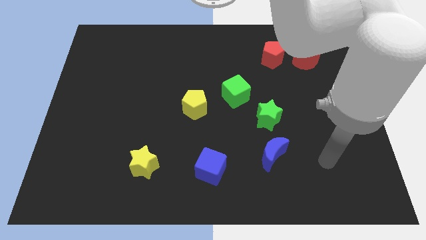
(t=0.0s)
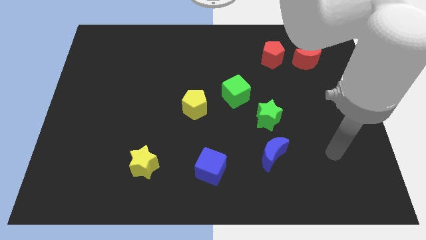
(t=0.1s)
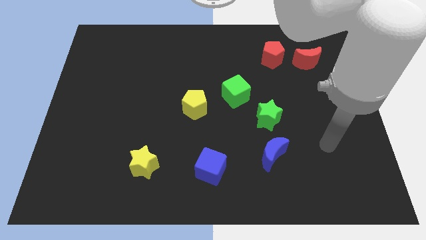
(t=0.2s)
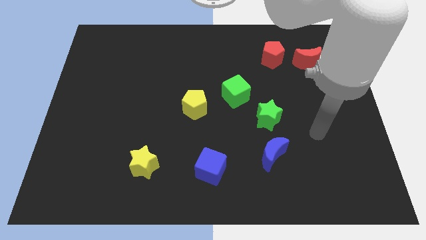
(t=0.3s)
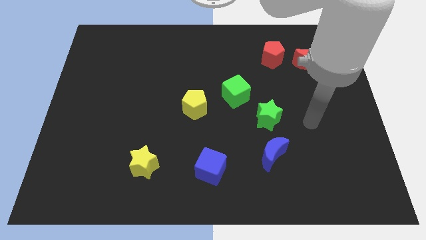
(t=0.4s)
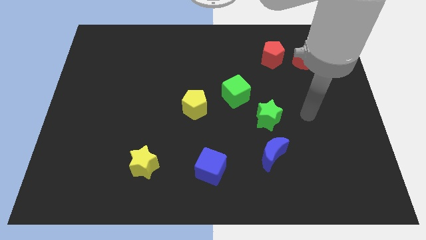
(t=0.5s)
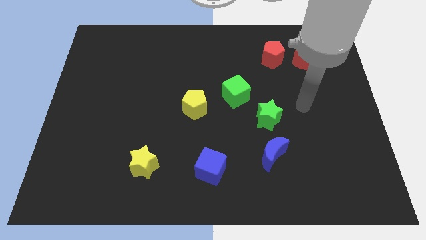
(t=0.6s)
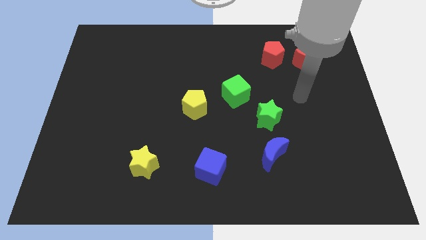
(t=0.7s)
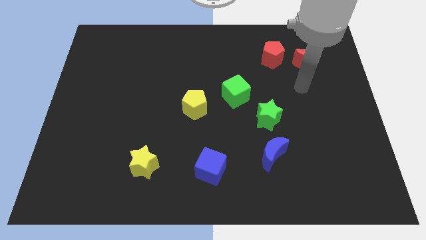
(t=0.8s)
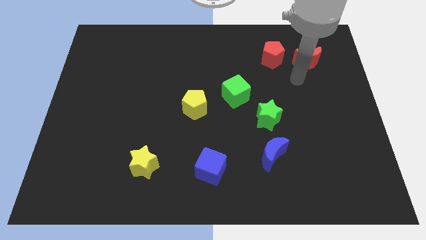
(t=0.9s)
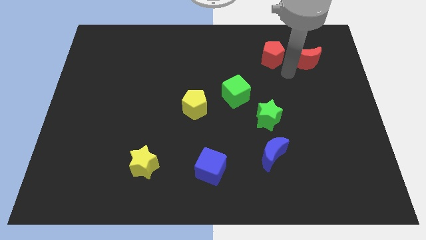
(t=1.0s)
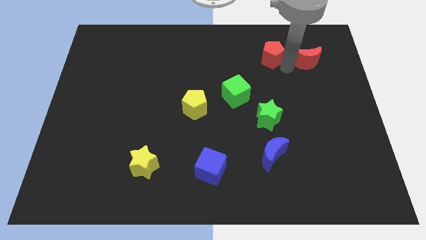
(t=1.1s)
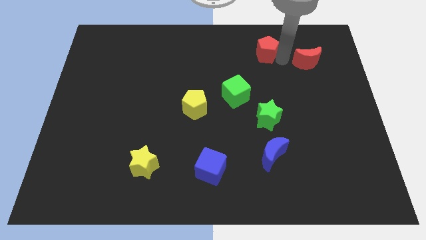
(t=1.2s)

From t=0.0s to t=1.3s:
move the red moon away from the red pentagon

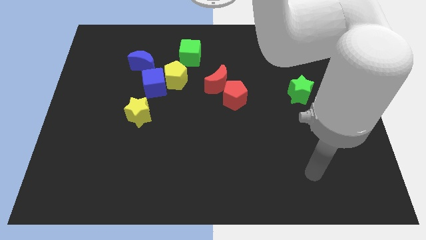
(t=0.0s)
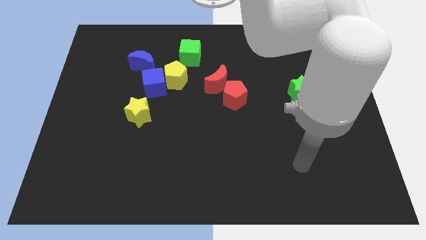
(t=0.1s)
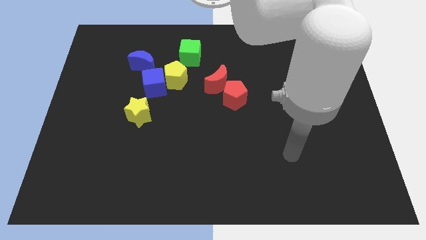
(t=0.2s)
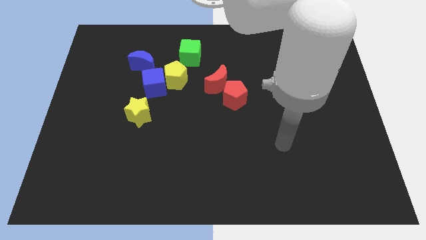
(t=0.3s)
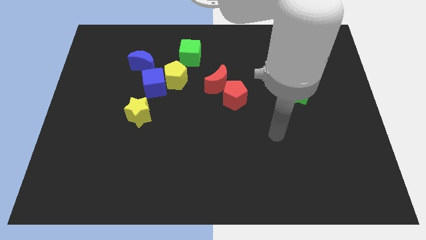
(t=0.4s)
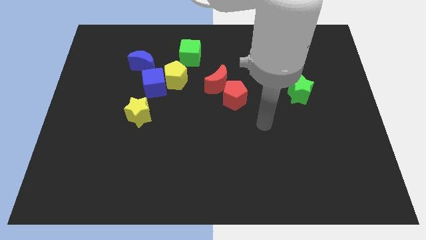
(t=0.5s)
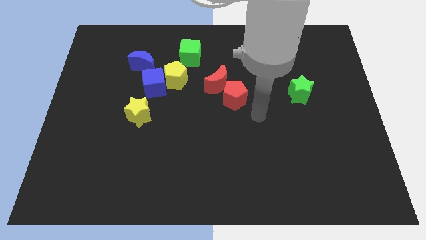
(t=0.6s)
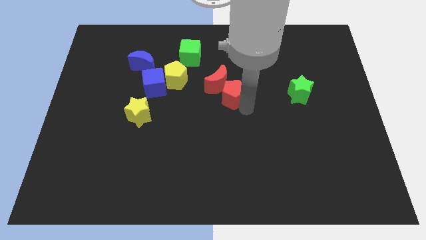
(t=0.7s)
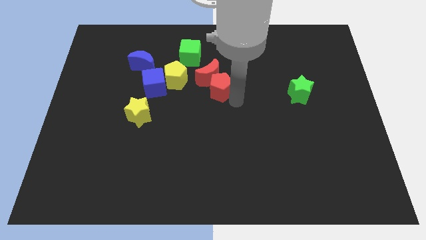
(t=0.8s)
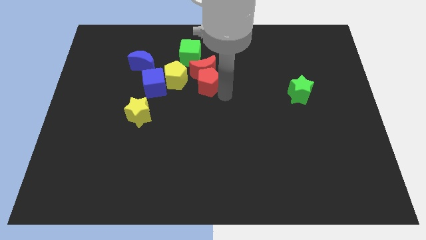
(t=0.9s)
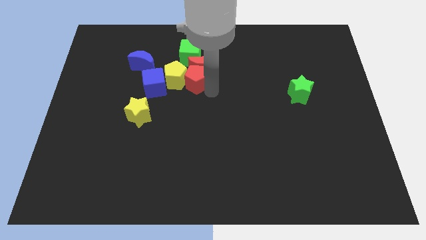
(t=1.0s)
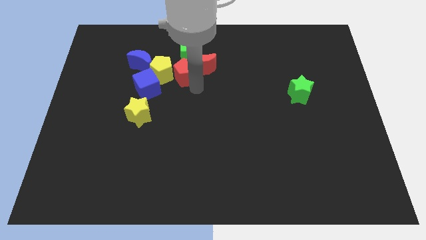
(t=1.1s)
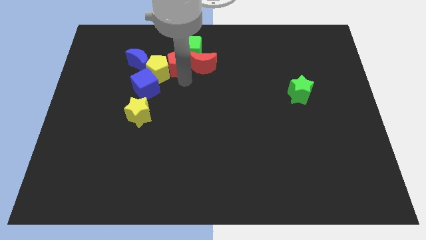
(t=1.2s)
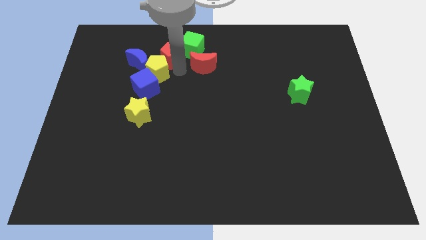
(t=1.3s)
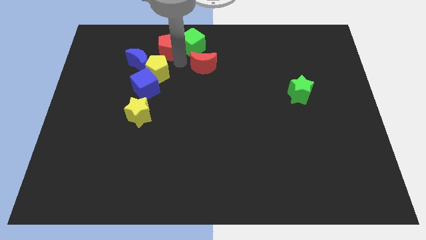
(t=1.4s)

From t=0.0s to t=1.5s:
pull the red moon apart from the red pentagon

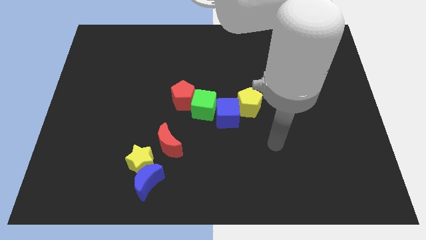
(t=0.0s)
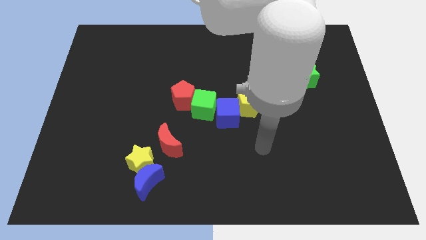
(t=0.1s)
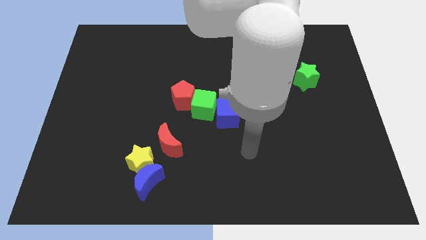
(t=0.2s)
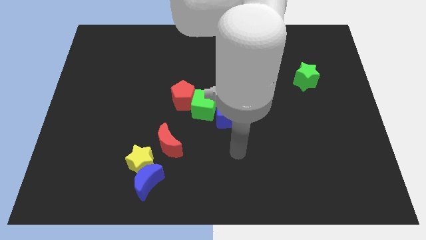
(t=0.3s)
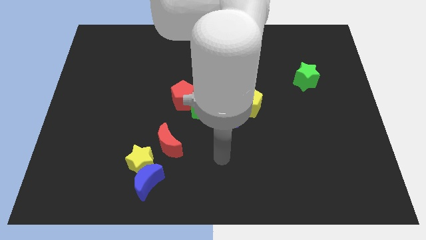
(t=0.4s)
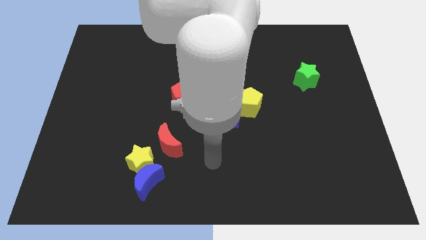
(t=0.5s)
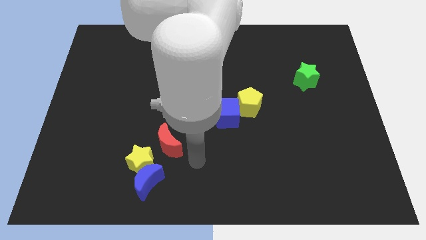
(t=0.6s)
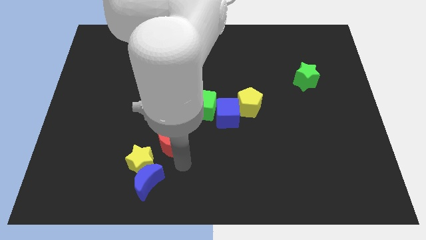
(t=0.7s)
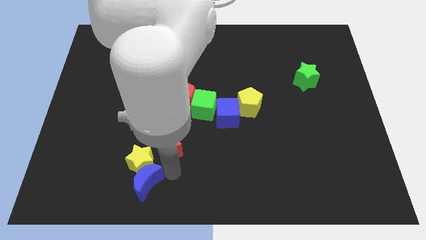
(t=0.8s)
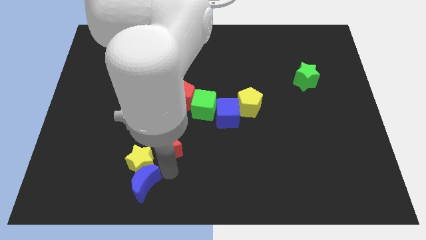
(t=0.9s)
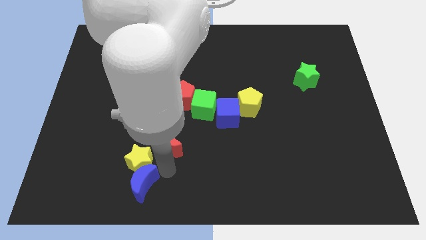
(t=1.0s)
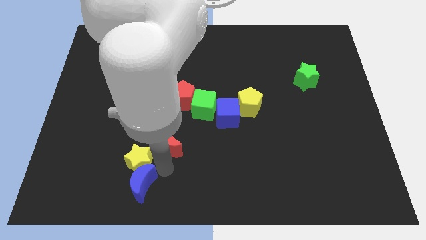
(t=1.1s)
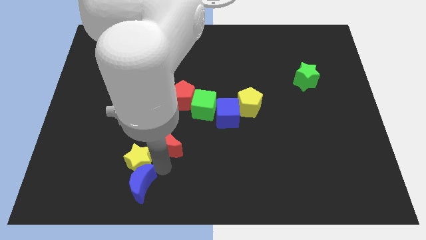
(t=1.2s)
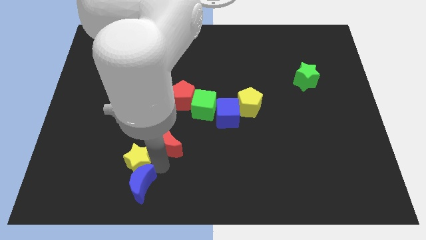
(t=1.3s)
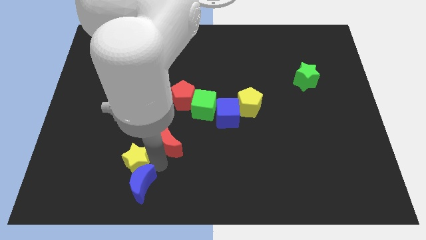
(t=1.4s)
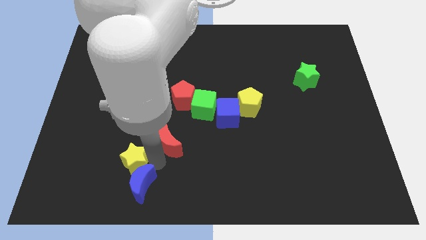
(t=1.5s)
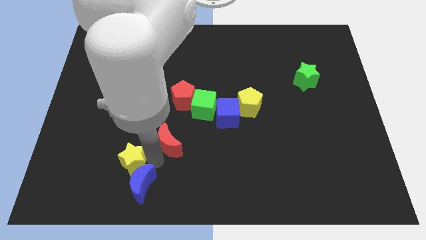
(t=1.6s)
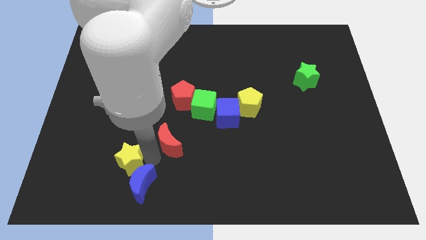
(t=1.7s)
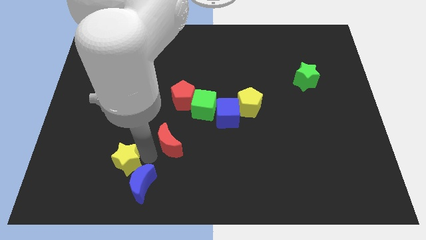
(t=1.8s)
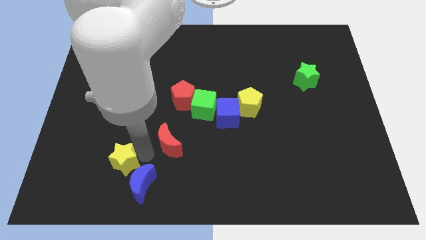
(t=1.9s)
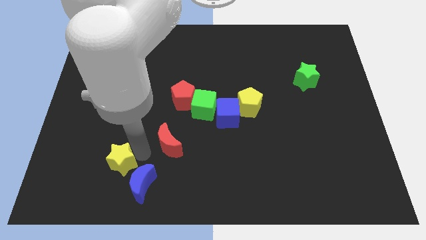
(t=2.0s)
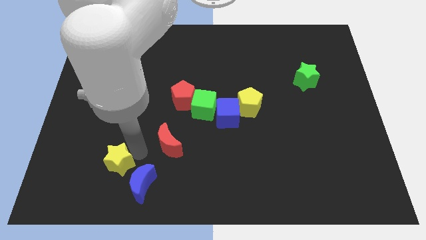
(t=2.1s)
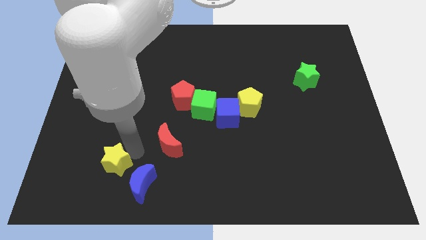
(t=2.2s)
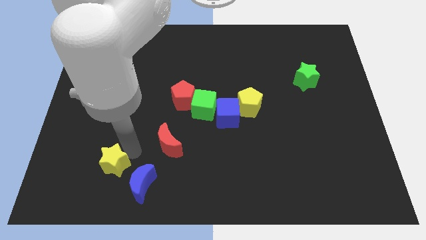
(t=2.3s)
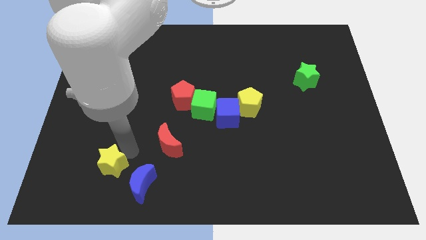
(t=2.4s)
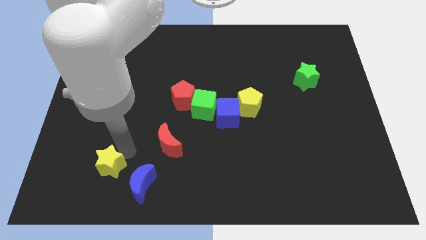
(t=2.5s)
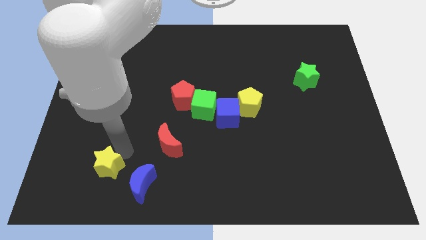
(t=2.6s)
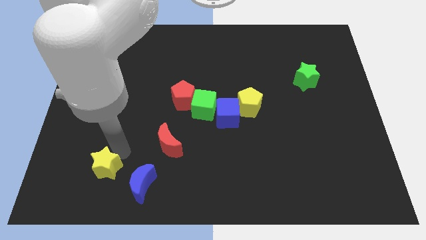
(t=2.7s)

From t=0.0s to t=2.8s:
separate the yellow star from the blue moon and red moon

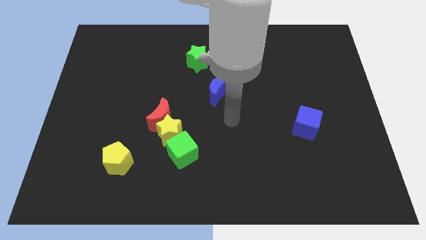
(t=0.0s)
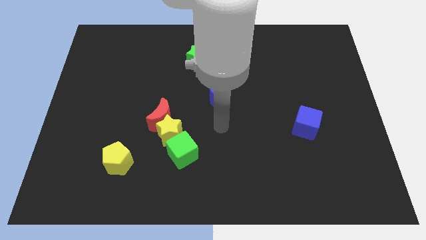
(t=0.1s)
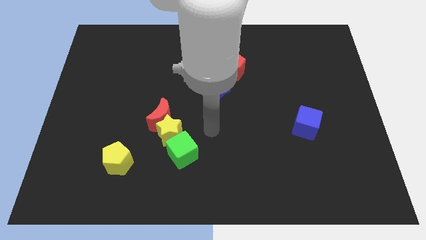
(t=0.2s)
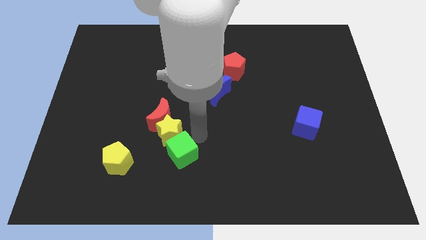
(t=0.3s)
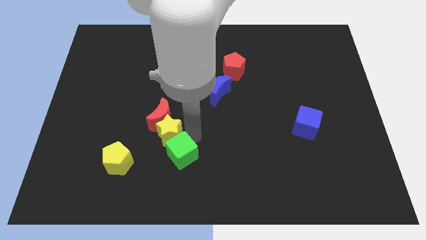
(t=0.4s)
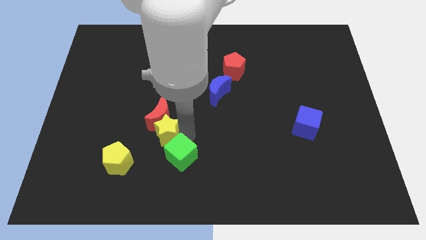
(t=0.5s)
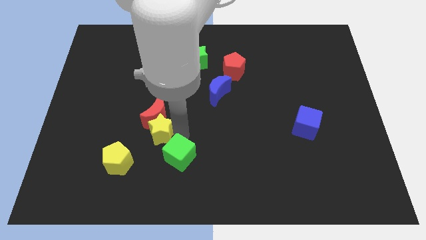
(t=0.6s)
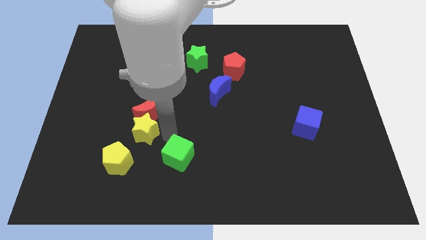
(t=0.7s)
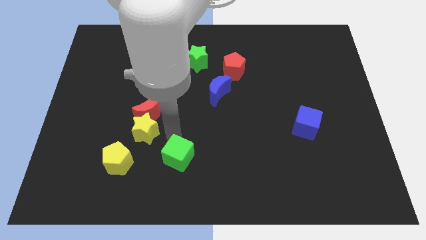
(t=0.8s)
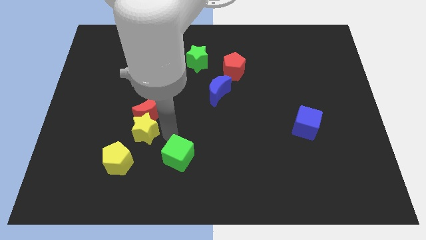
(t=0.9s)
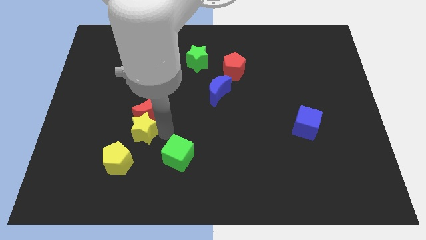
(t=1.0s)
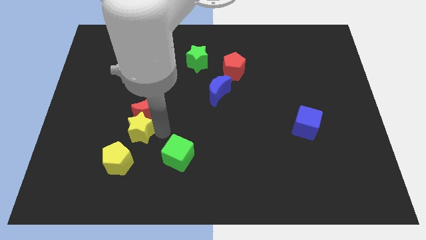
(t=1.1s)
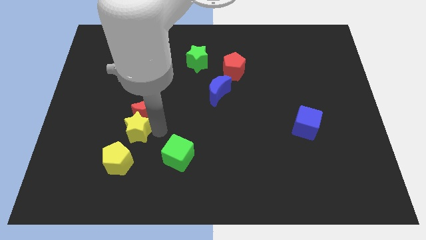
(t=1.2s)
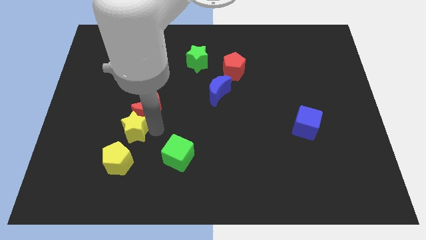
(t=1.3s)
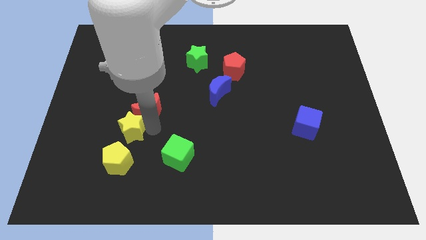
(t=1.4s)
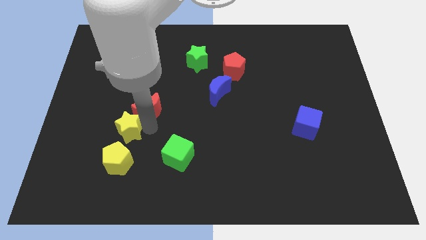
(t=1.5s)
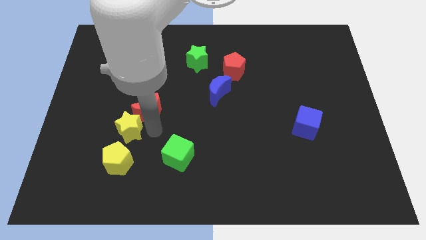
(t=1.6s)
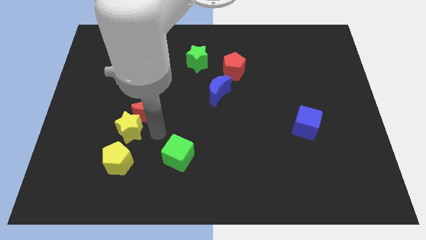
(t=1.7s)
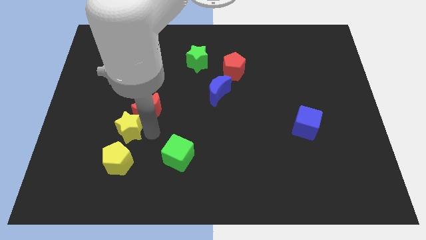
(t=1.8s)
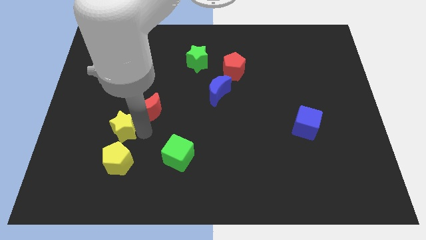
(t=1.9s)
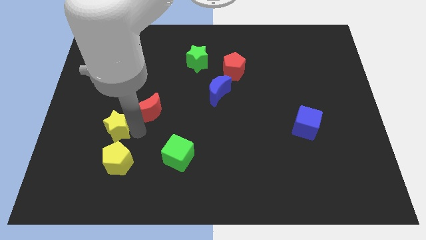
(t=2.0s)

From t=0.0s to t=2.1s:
separate the yellow star from the red moon and green cube

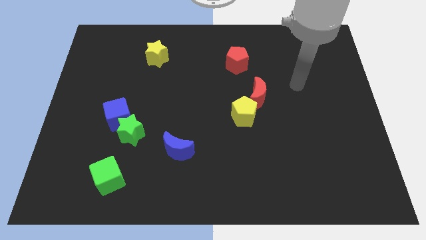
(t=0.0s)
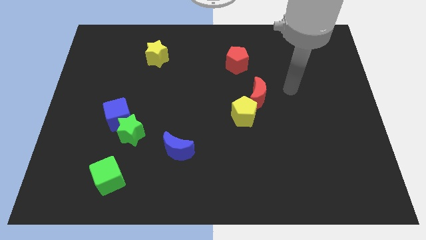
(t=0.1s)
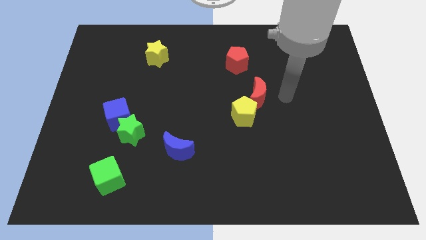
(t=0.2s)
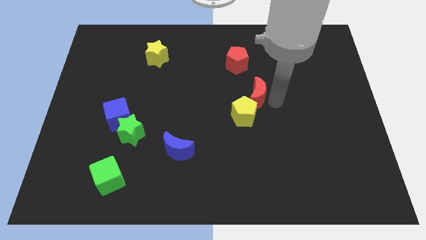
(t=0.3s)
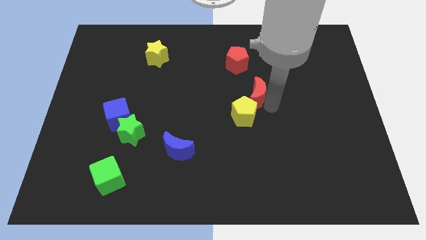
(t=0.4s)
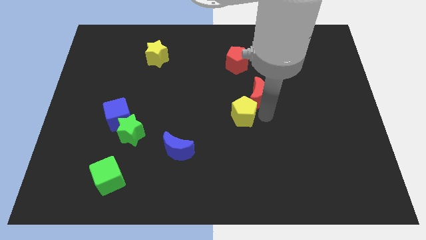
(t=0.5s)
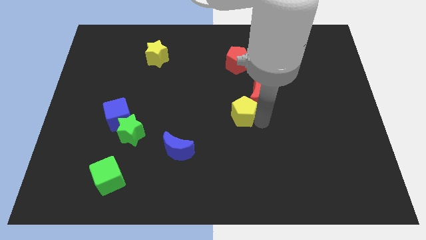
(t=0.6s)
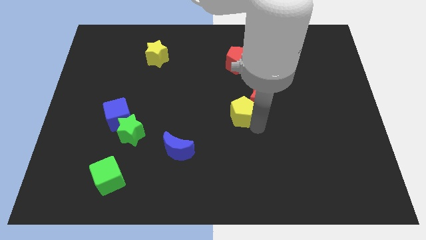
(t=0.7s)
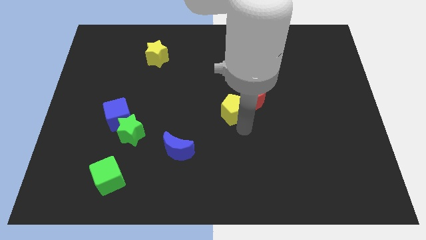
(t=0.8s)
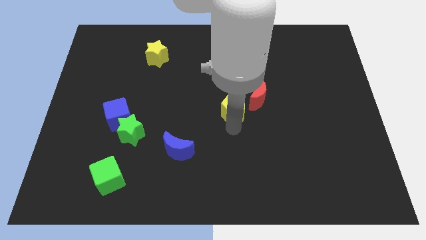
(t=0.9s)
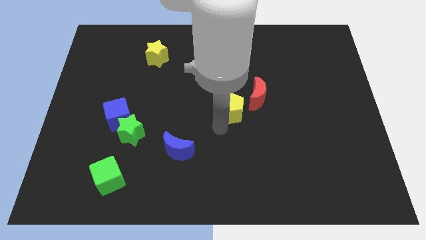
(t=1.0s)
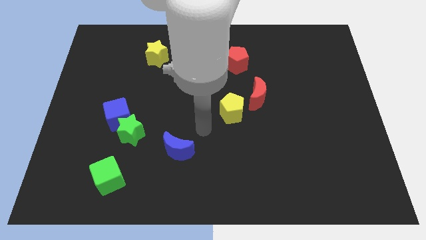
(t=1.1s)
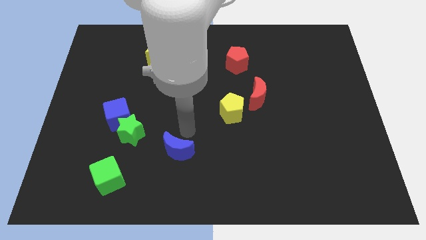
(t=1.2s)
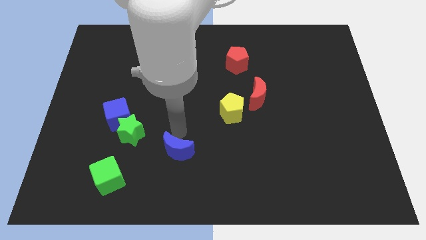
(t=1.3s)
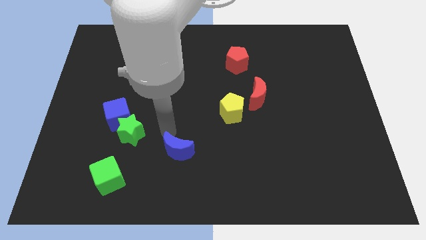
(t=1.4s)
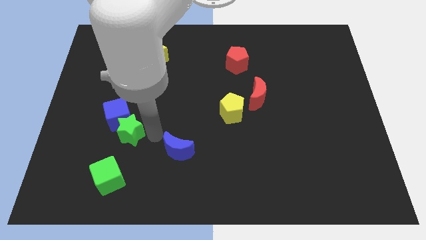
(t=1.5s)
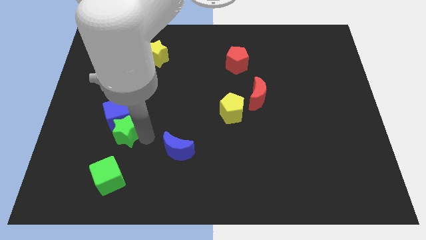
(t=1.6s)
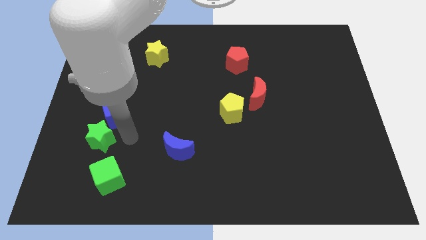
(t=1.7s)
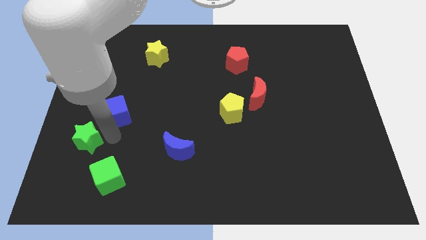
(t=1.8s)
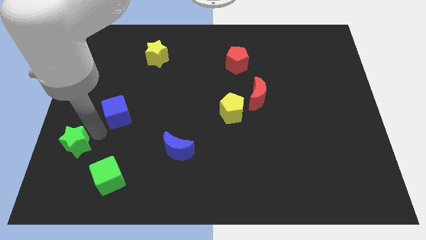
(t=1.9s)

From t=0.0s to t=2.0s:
move the blue cube away from the green star
